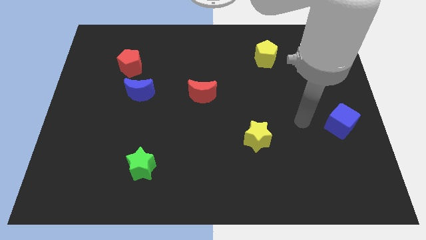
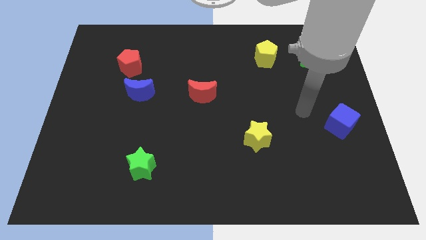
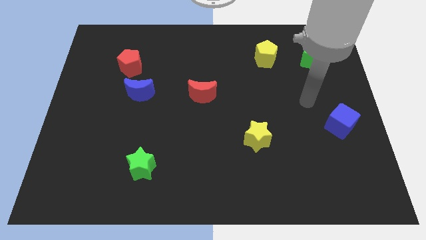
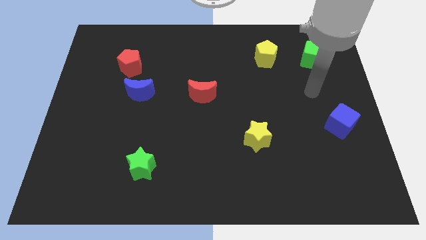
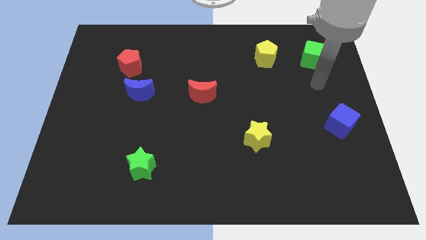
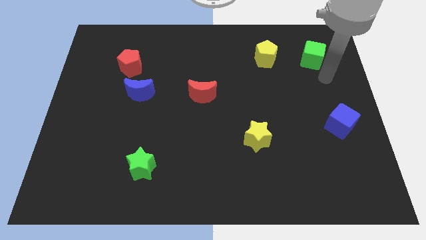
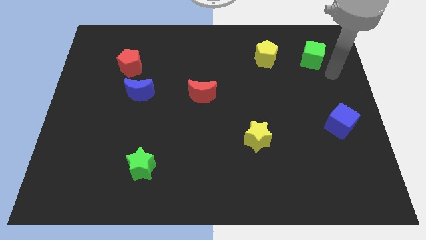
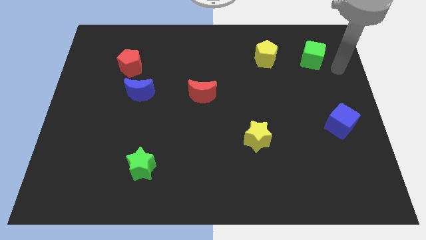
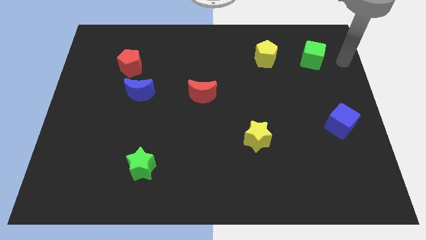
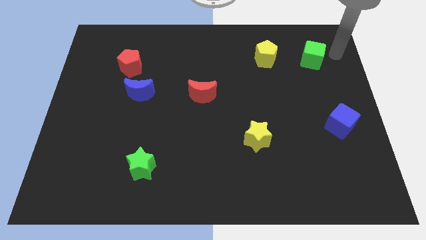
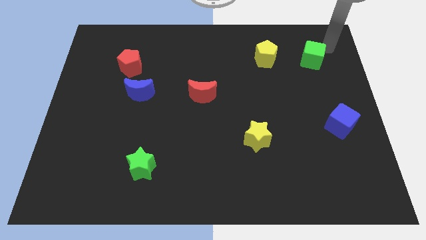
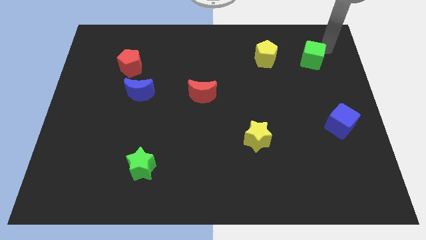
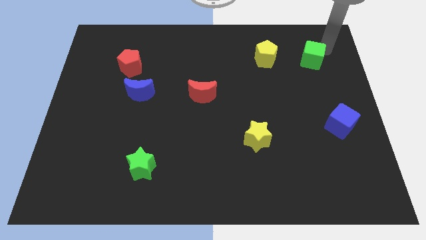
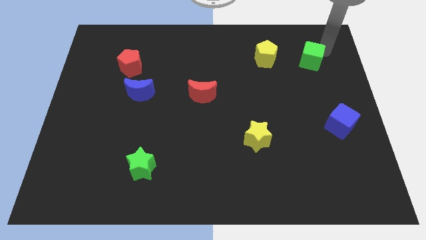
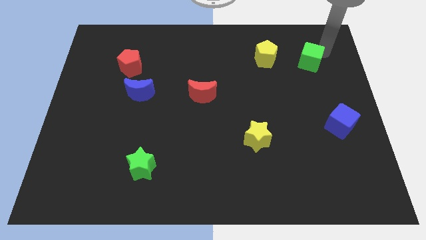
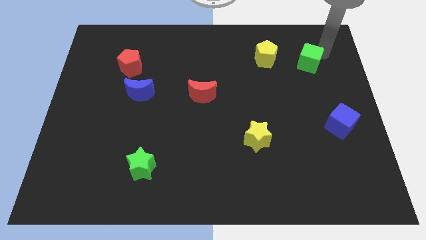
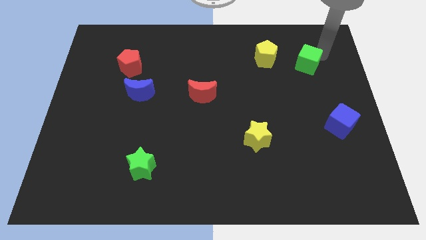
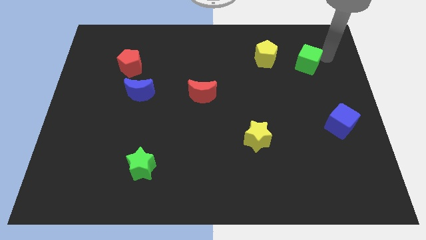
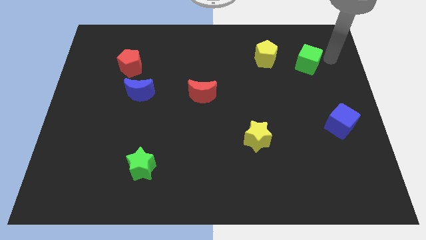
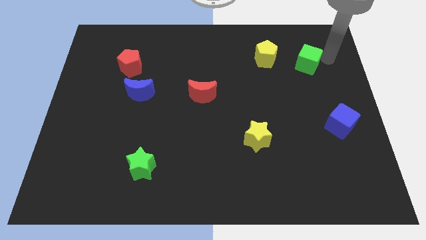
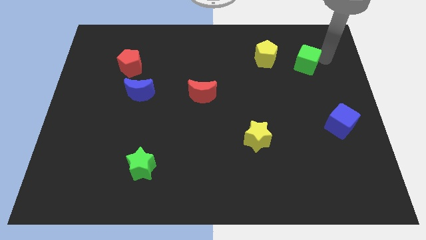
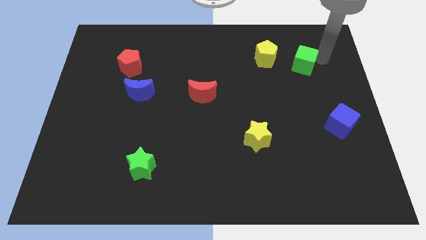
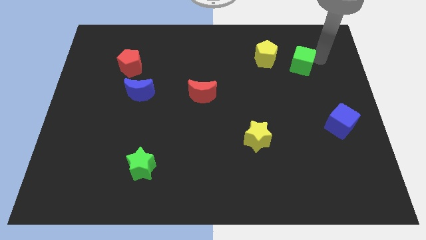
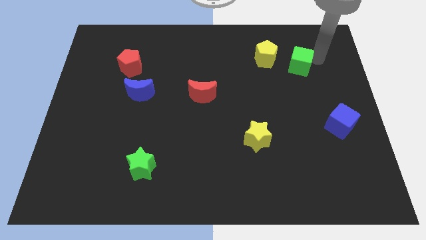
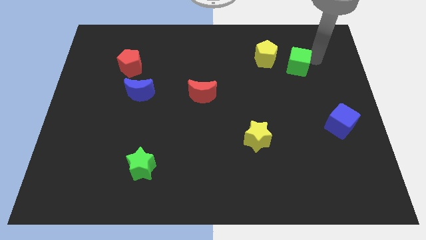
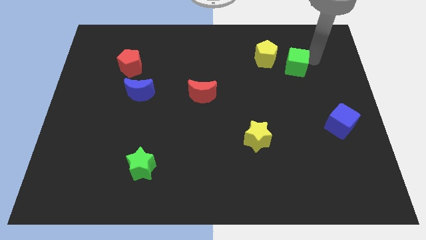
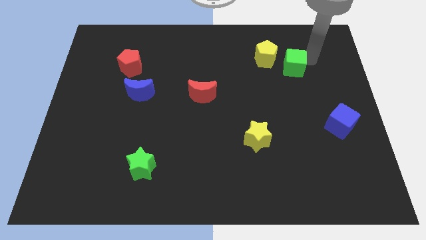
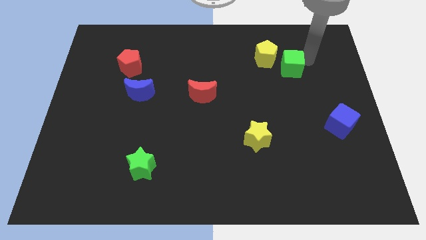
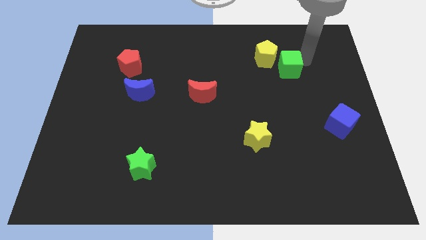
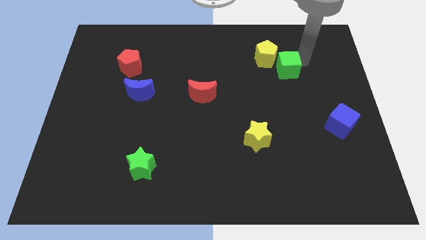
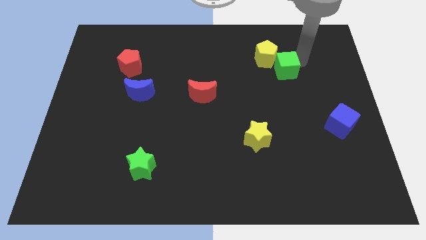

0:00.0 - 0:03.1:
move the green cube a little left

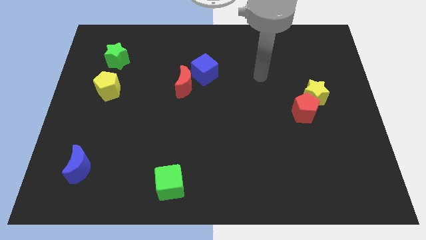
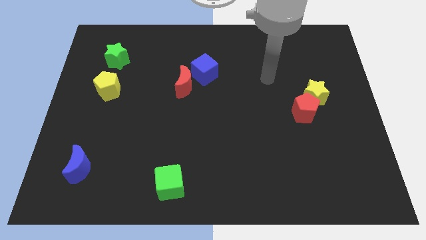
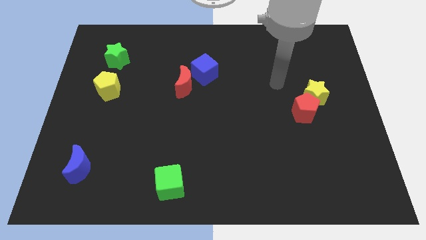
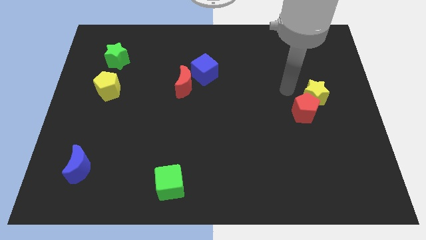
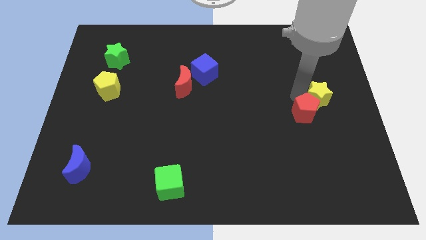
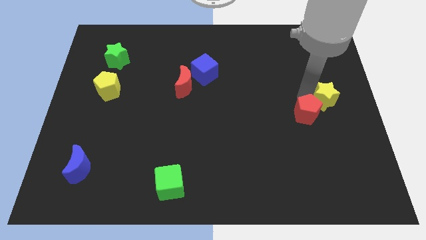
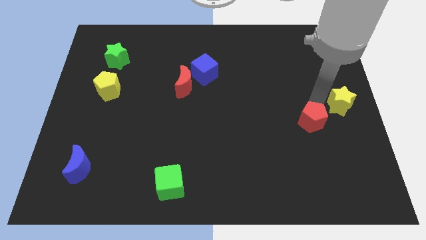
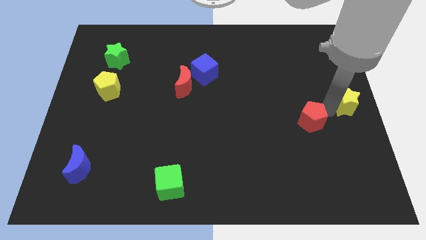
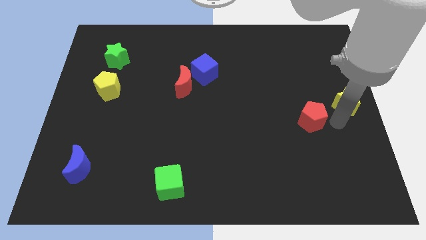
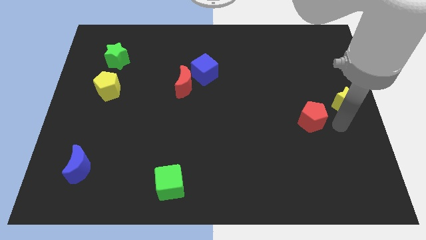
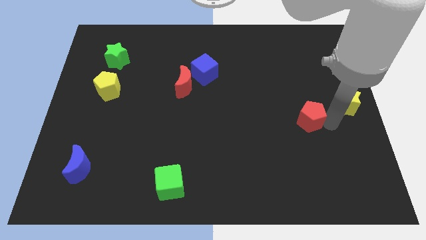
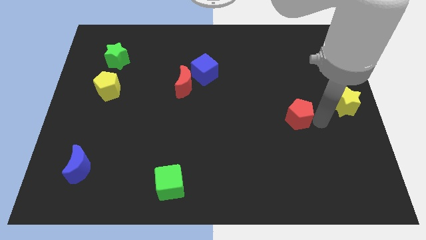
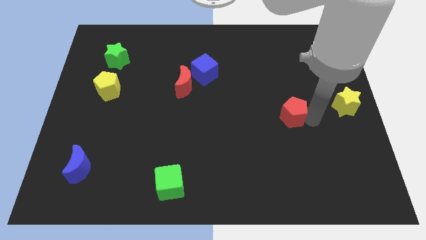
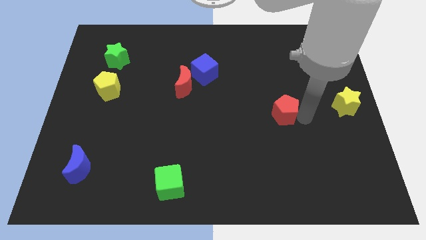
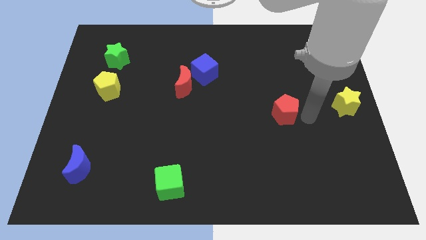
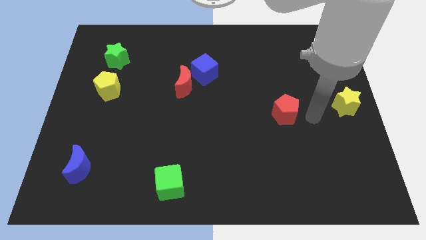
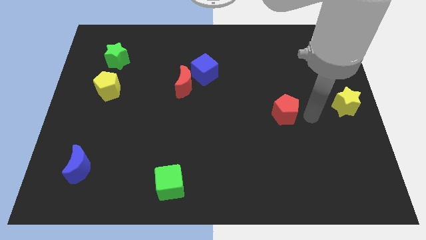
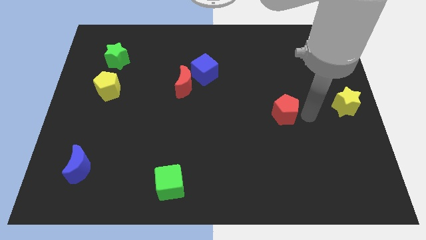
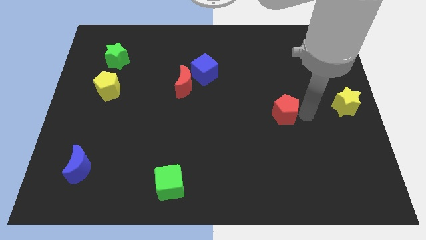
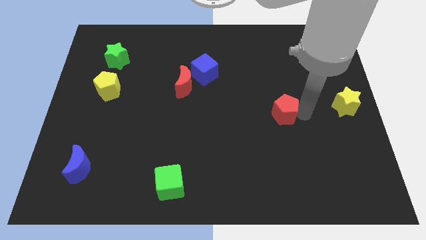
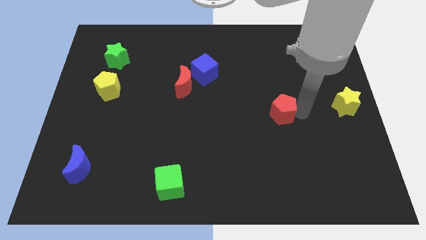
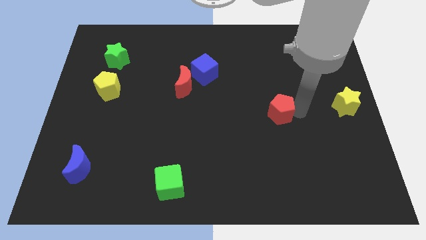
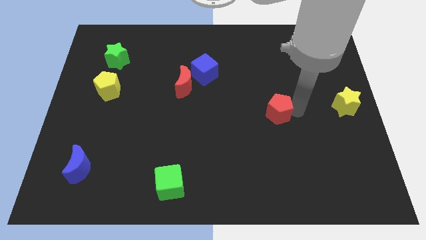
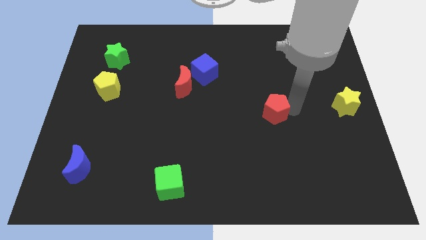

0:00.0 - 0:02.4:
slightly slide the red pentagon left

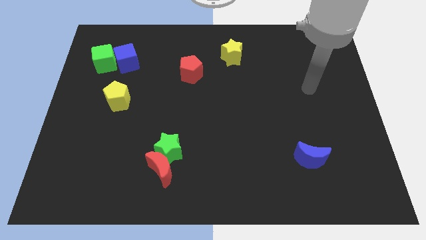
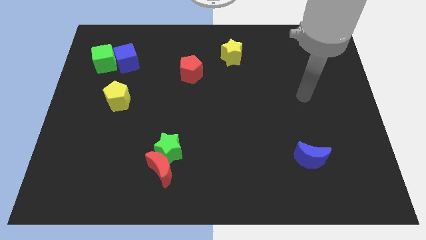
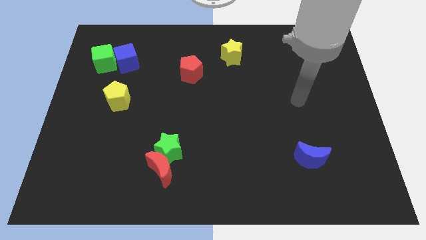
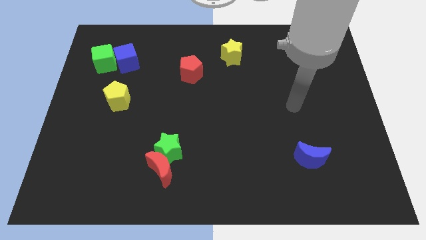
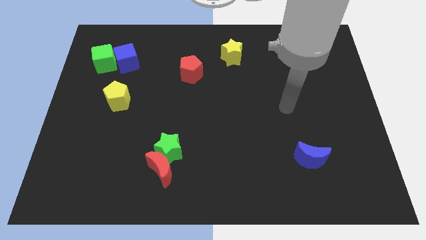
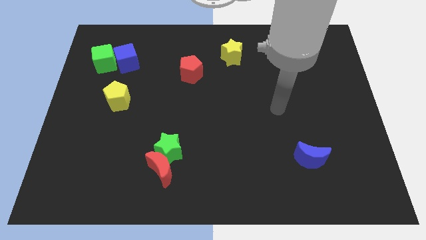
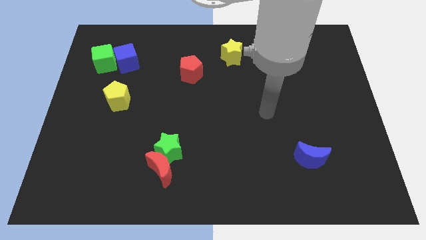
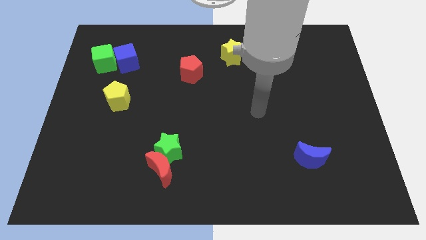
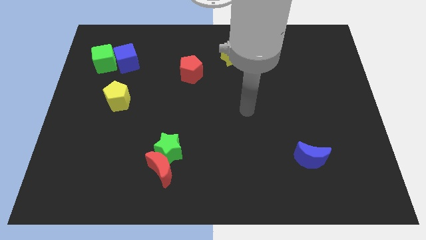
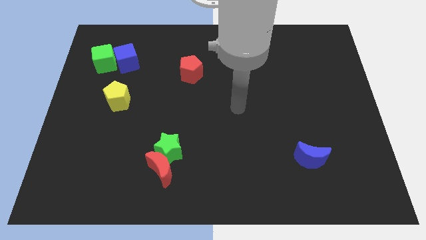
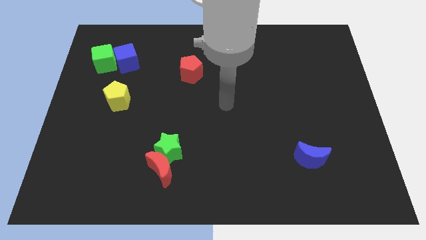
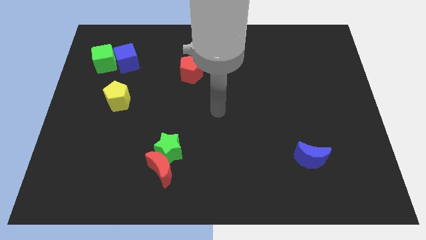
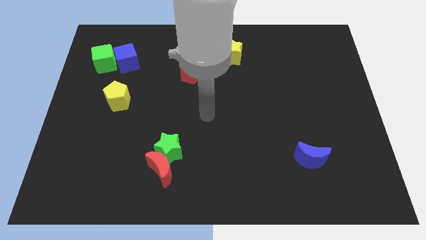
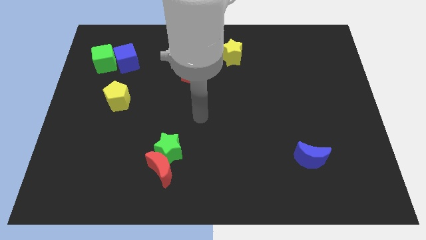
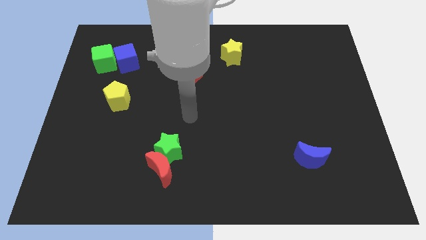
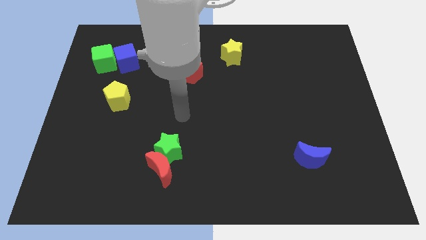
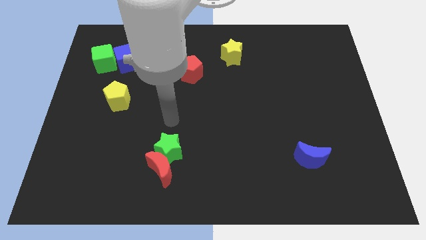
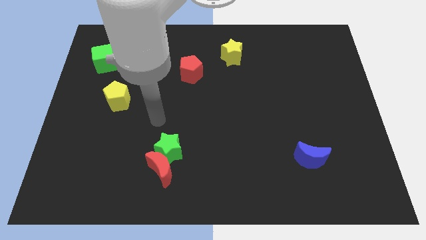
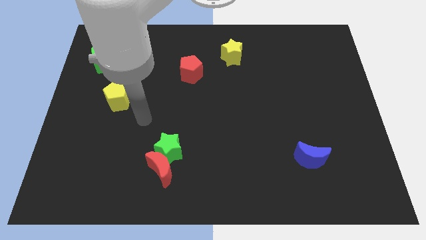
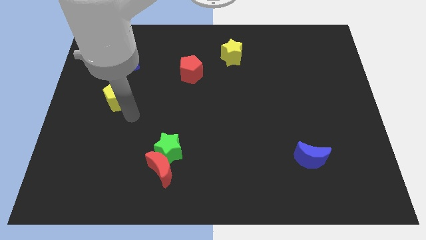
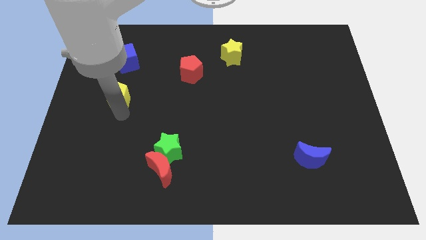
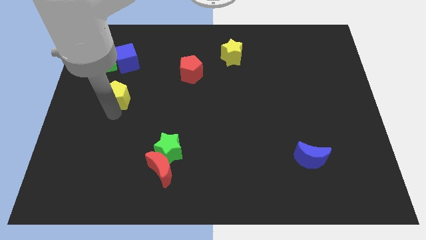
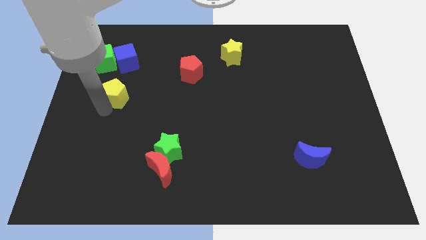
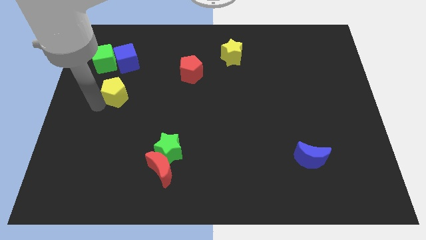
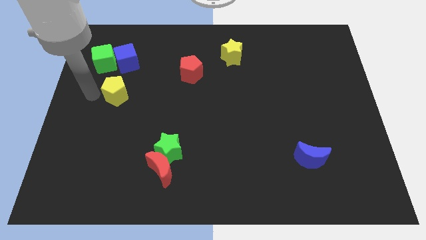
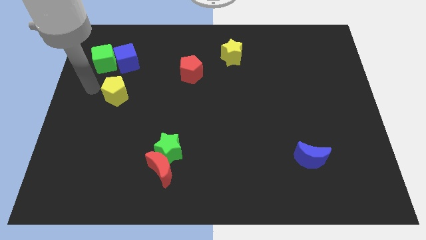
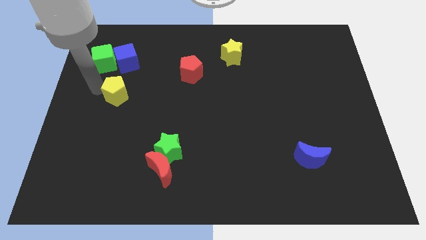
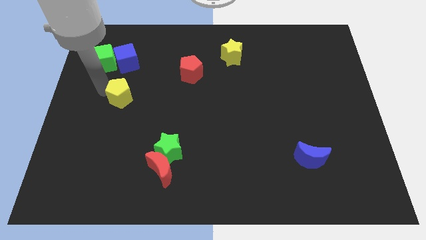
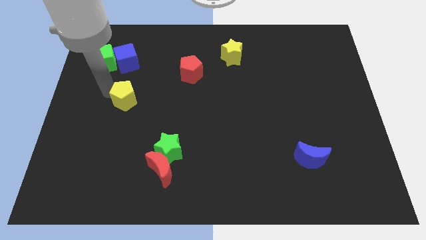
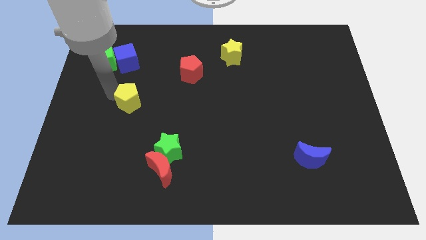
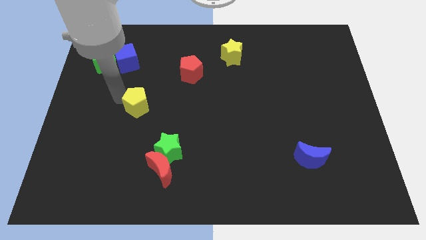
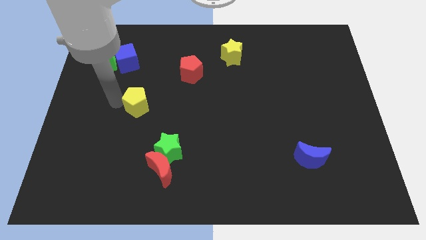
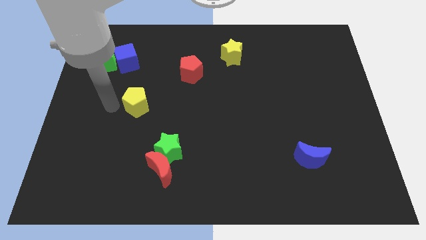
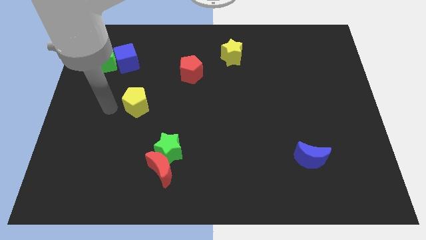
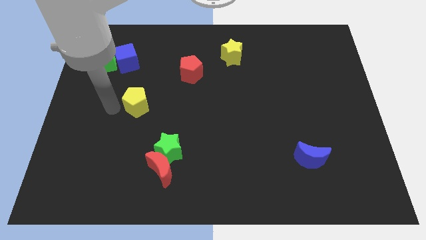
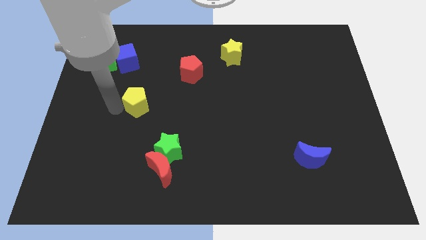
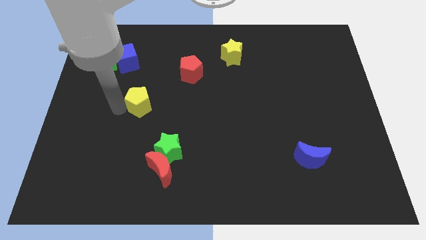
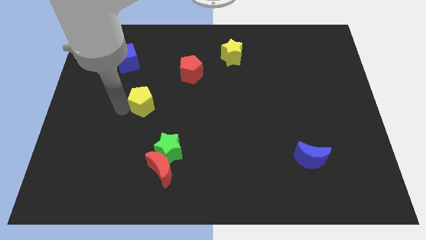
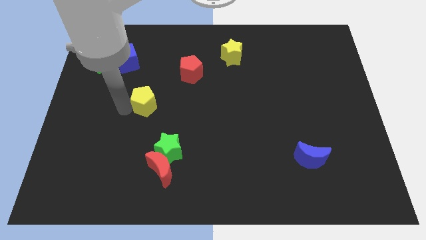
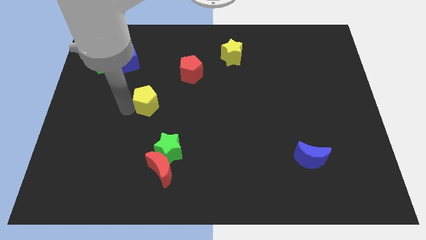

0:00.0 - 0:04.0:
push the yellow pentagon a little to the right
